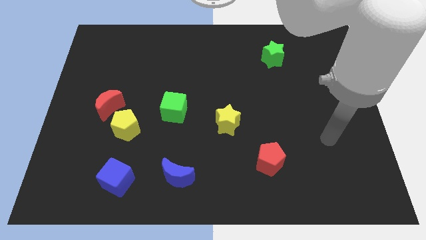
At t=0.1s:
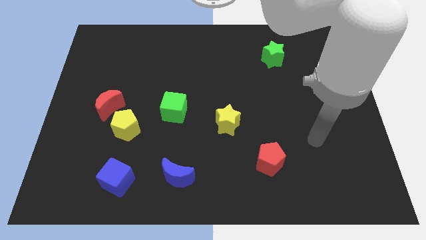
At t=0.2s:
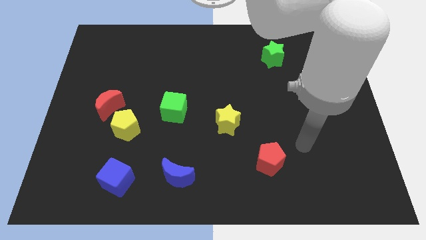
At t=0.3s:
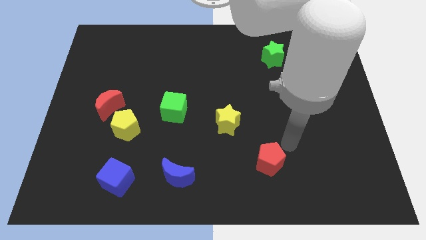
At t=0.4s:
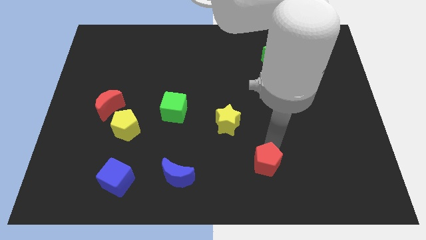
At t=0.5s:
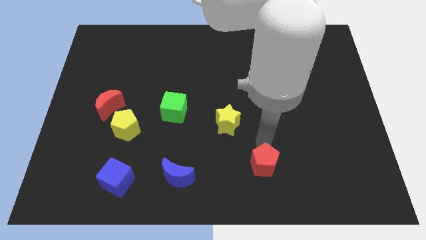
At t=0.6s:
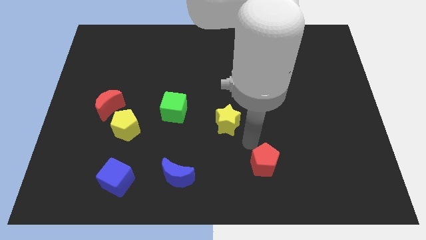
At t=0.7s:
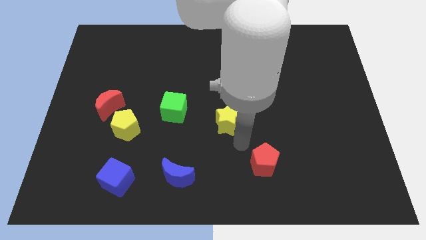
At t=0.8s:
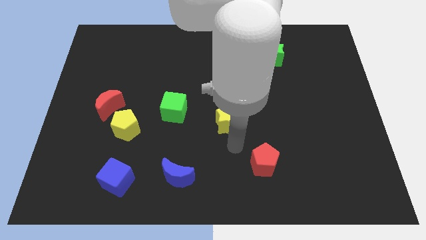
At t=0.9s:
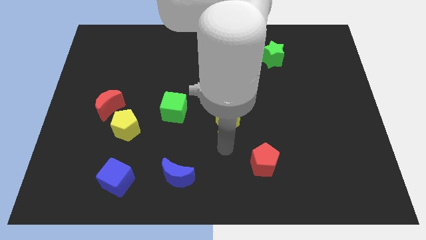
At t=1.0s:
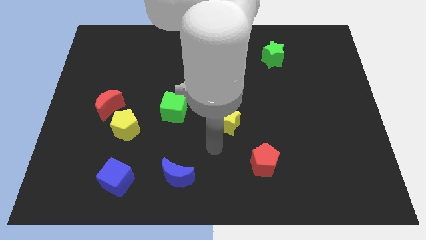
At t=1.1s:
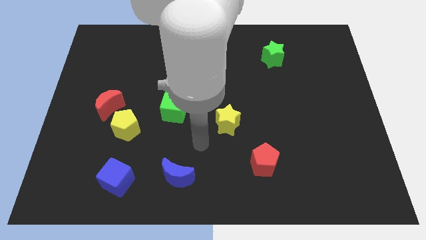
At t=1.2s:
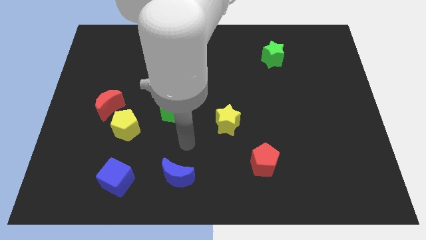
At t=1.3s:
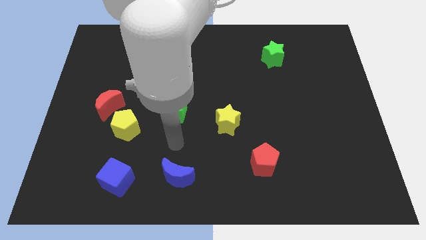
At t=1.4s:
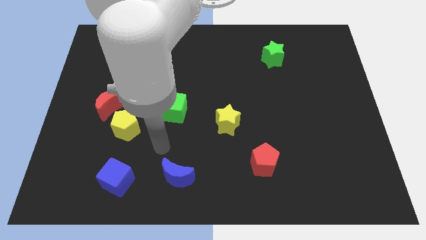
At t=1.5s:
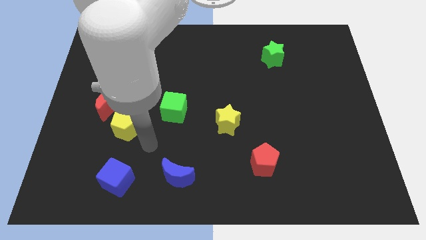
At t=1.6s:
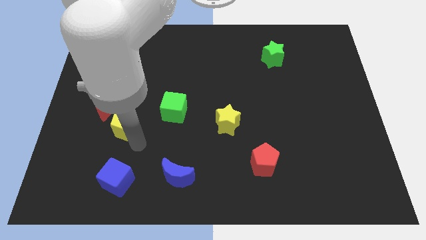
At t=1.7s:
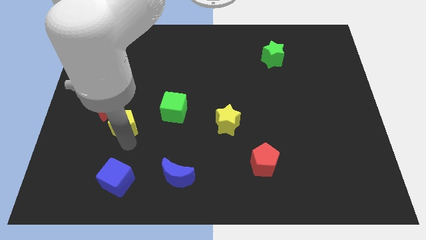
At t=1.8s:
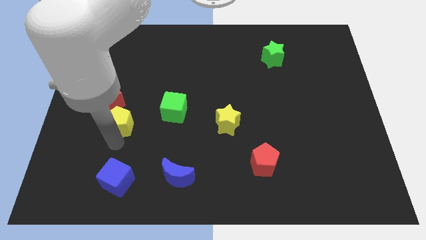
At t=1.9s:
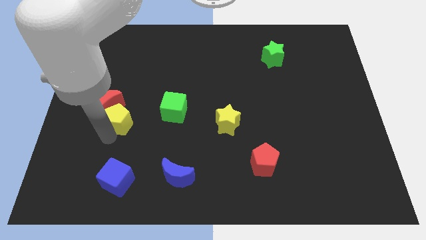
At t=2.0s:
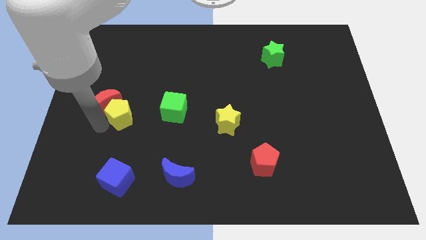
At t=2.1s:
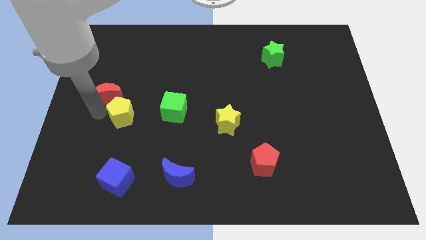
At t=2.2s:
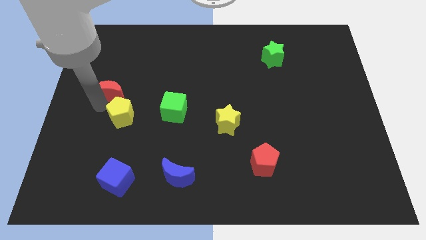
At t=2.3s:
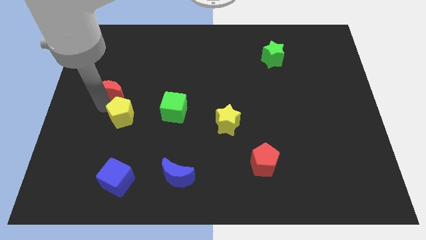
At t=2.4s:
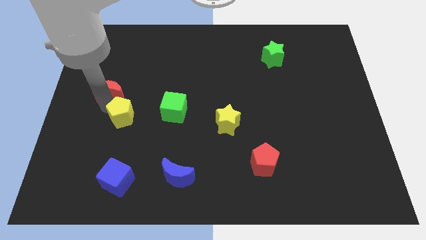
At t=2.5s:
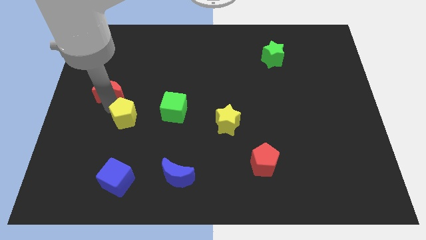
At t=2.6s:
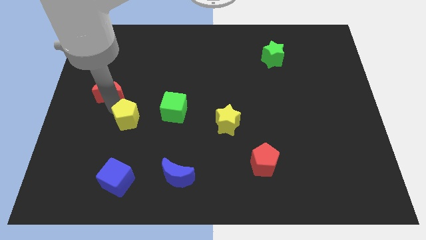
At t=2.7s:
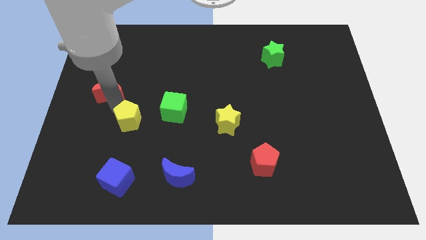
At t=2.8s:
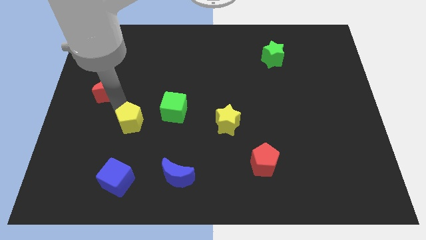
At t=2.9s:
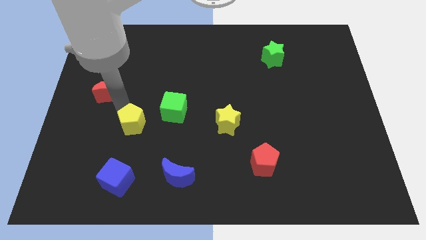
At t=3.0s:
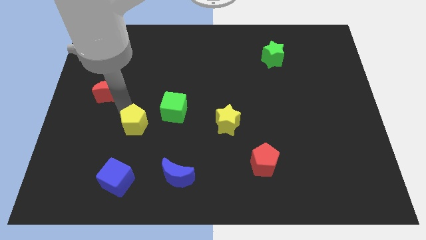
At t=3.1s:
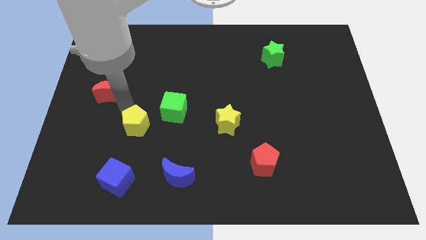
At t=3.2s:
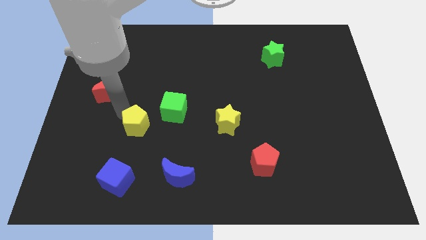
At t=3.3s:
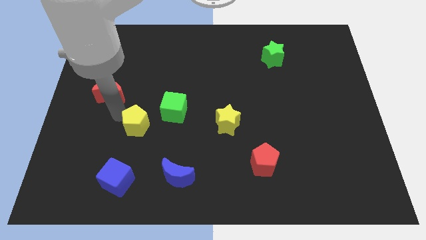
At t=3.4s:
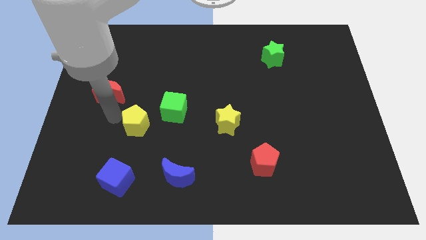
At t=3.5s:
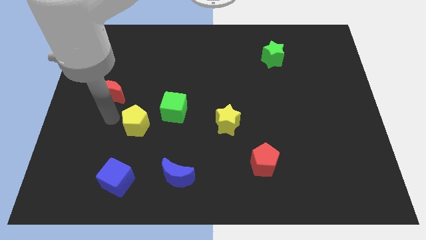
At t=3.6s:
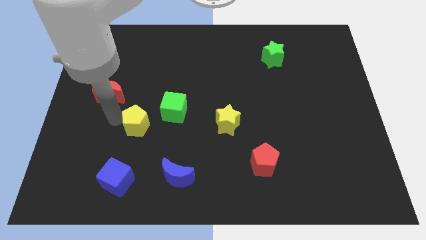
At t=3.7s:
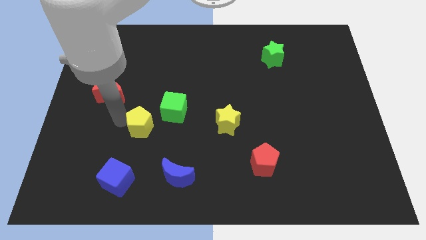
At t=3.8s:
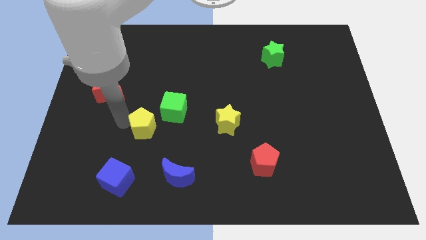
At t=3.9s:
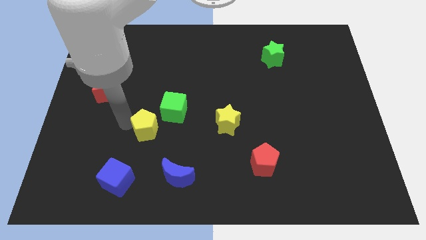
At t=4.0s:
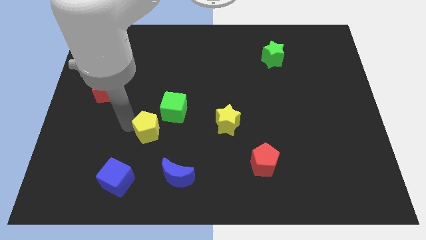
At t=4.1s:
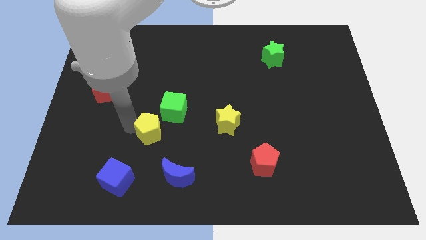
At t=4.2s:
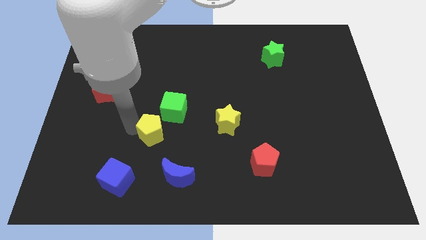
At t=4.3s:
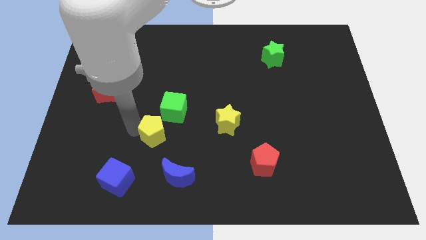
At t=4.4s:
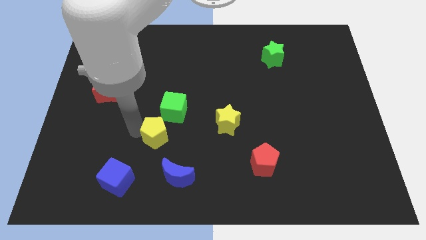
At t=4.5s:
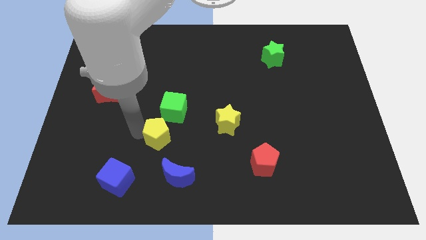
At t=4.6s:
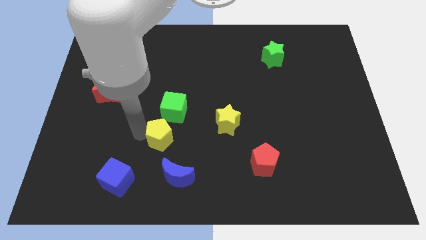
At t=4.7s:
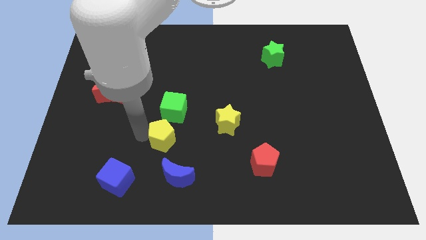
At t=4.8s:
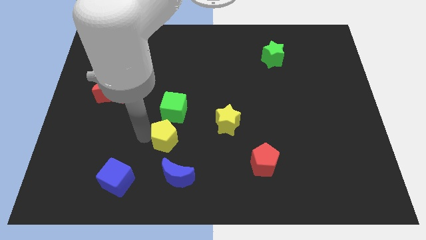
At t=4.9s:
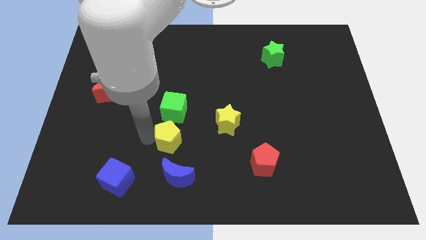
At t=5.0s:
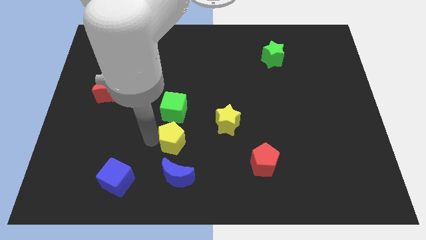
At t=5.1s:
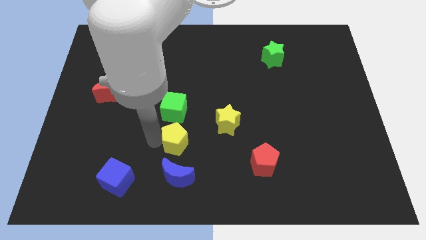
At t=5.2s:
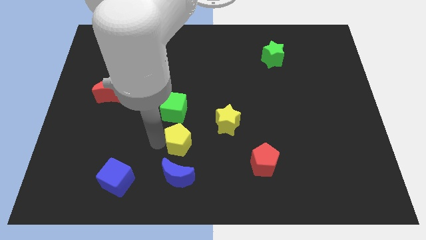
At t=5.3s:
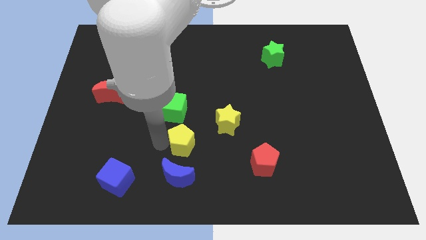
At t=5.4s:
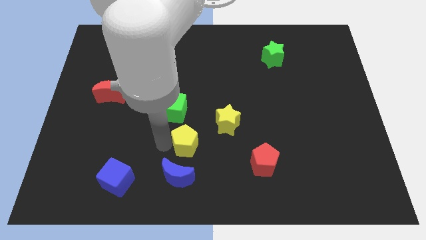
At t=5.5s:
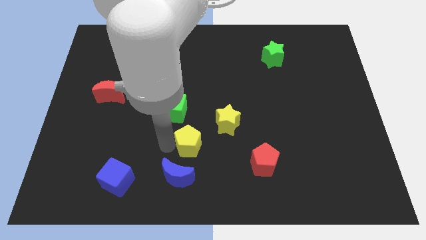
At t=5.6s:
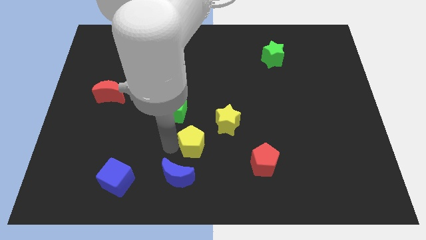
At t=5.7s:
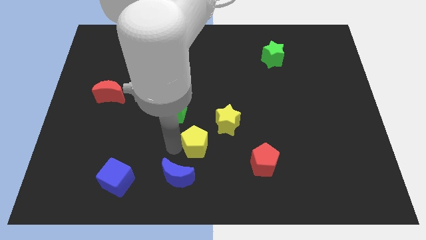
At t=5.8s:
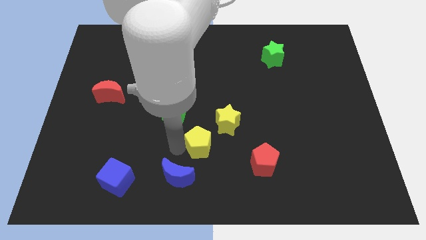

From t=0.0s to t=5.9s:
push the yellow pentagon to the middle
